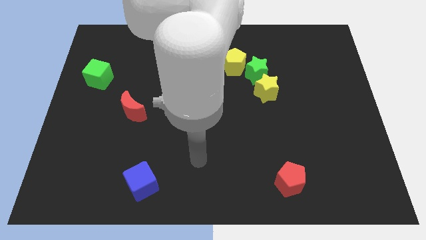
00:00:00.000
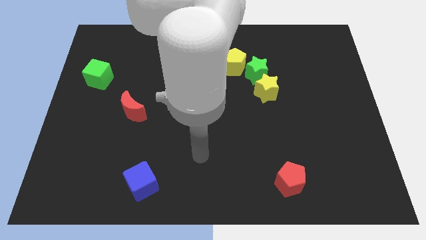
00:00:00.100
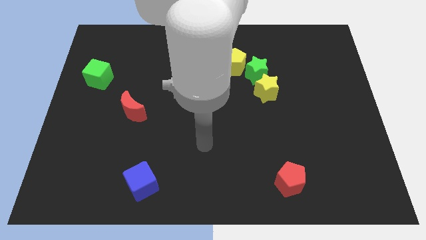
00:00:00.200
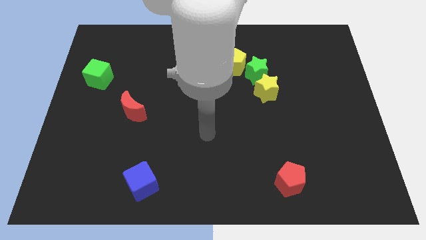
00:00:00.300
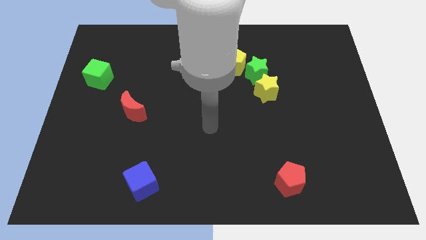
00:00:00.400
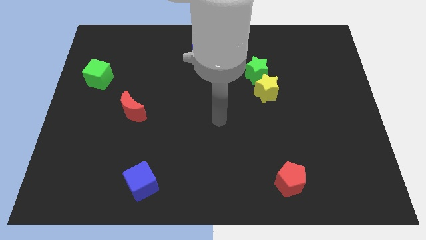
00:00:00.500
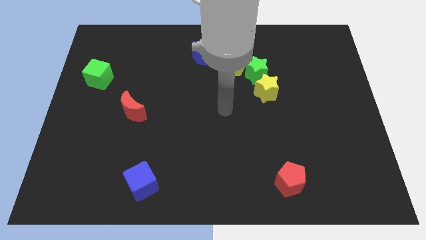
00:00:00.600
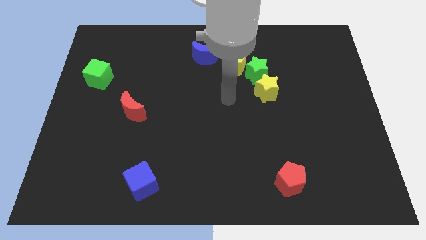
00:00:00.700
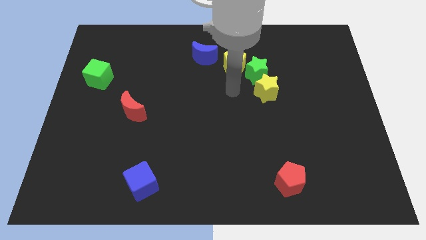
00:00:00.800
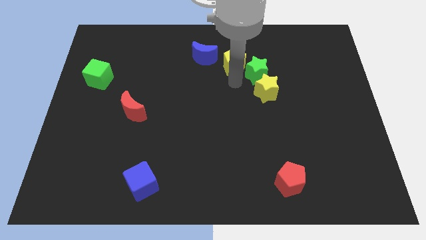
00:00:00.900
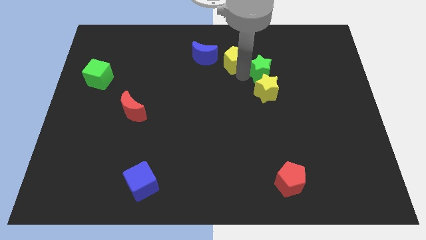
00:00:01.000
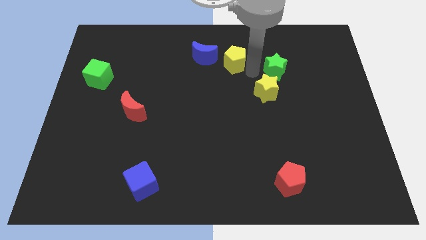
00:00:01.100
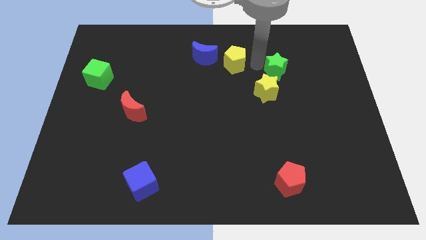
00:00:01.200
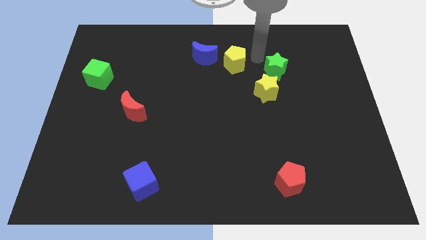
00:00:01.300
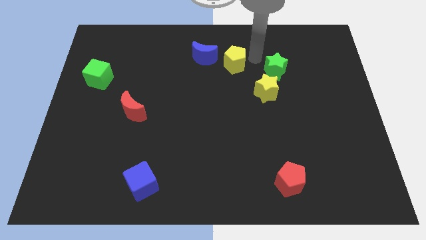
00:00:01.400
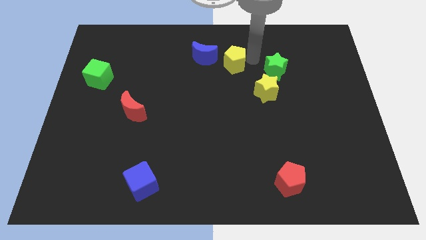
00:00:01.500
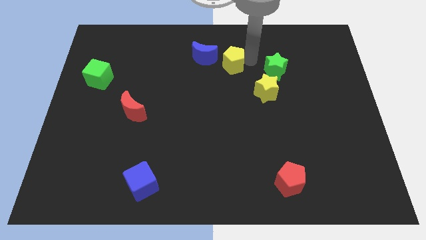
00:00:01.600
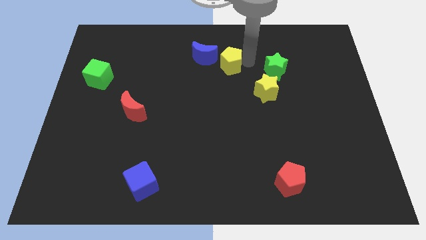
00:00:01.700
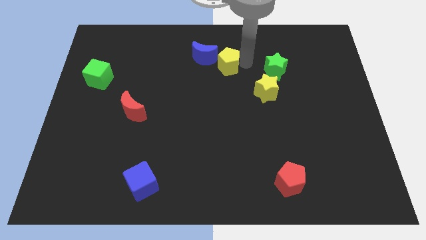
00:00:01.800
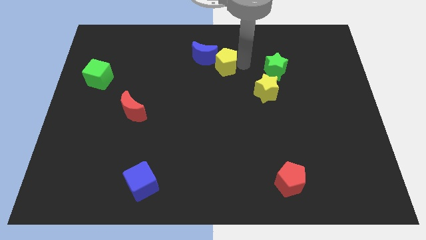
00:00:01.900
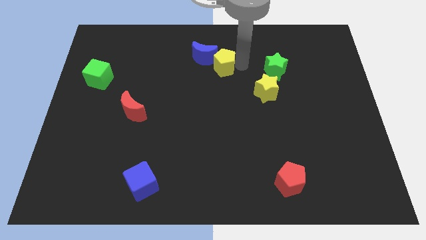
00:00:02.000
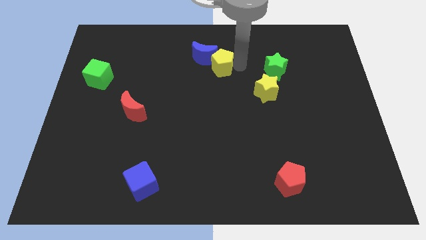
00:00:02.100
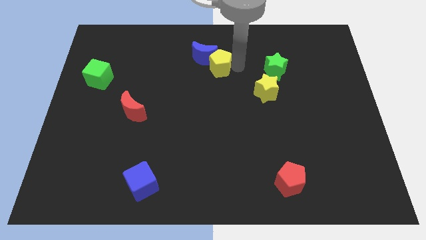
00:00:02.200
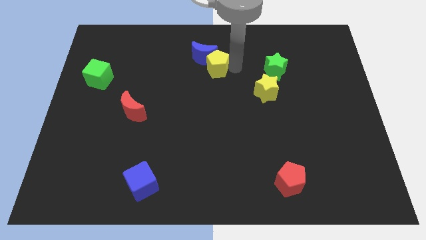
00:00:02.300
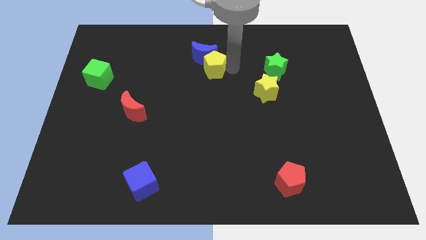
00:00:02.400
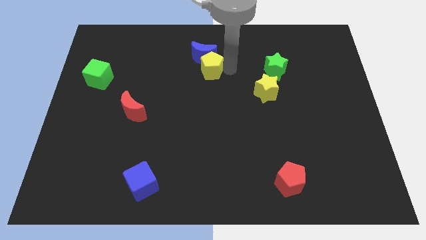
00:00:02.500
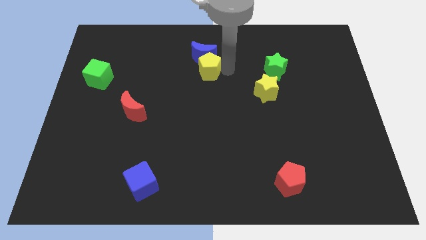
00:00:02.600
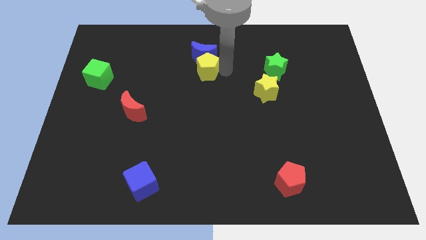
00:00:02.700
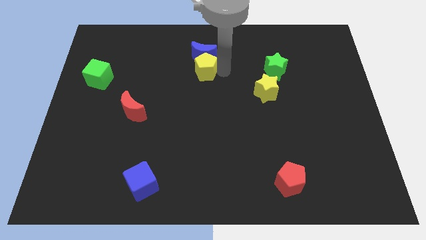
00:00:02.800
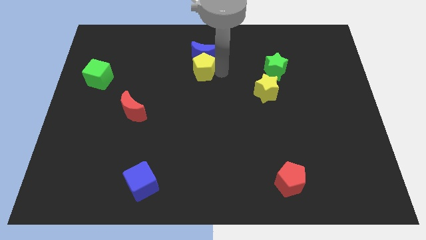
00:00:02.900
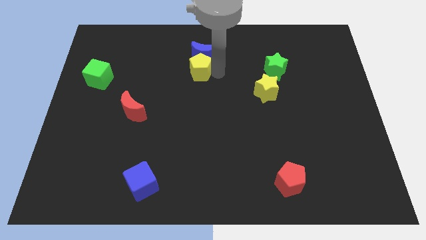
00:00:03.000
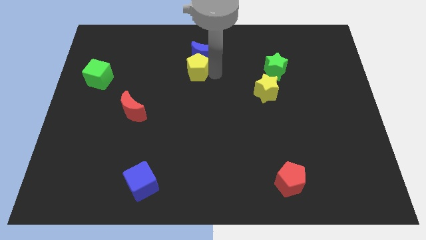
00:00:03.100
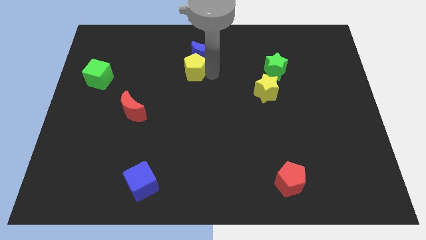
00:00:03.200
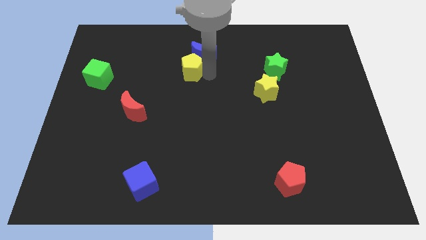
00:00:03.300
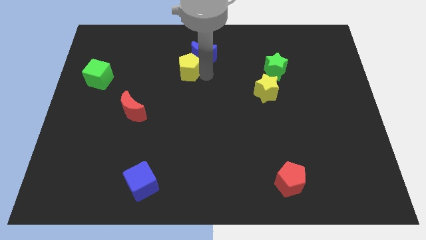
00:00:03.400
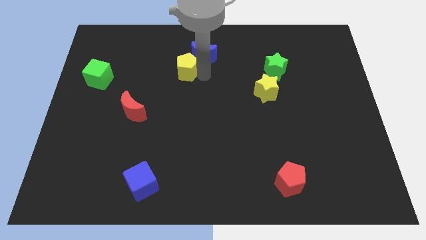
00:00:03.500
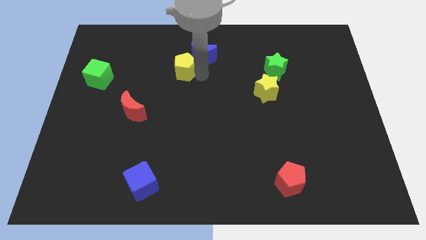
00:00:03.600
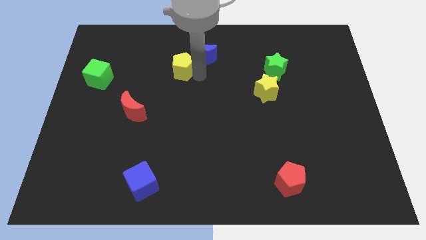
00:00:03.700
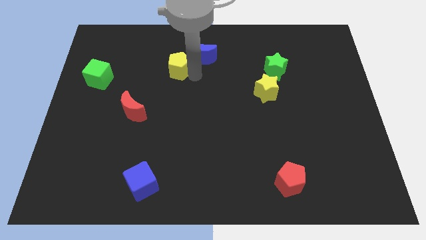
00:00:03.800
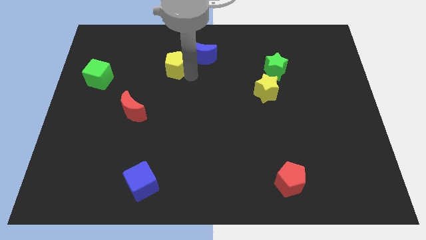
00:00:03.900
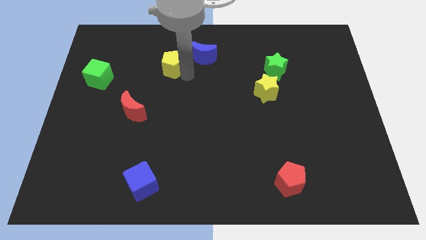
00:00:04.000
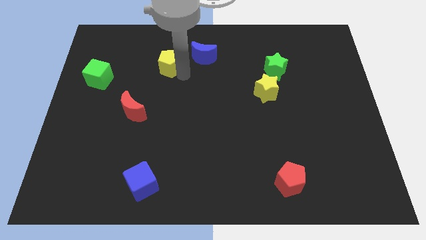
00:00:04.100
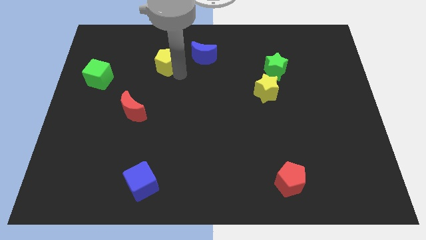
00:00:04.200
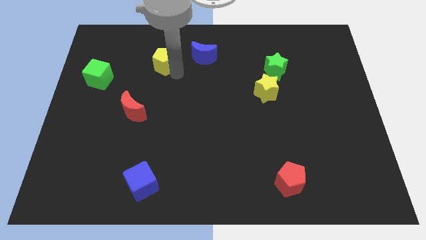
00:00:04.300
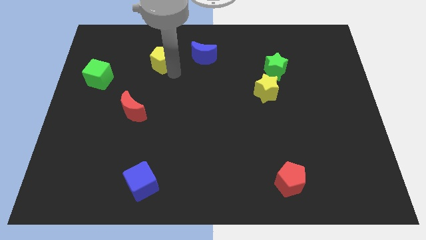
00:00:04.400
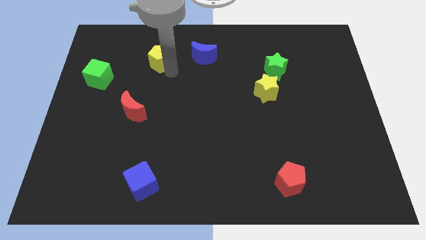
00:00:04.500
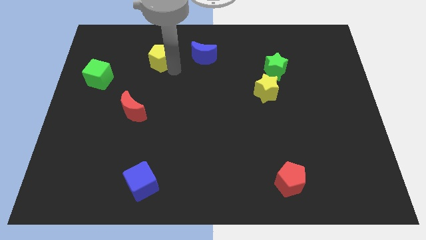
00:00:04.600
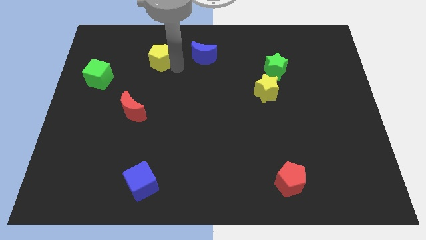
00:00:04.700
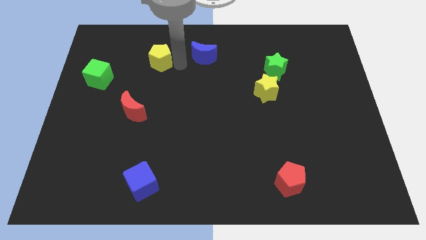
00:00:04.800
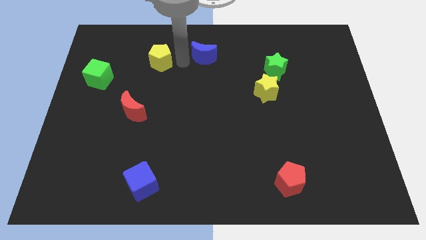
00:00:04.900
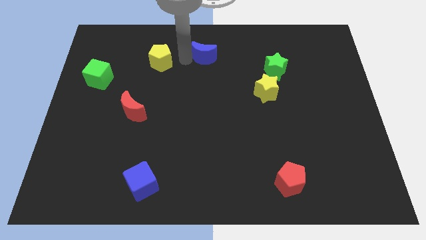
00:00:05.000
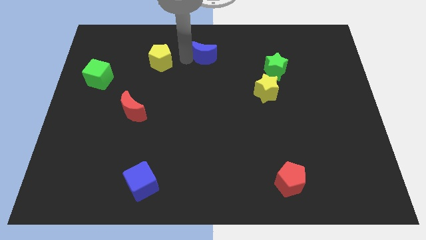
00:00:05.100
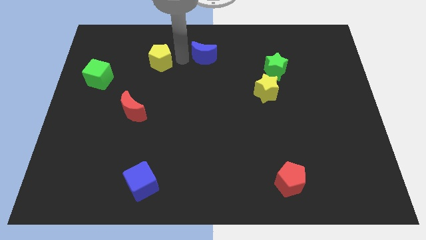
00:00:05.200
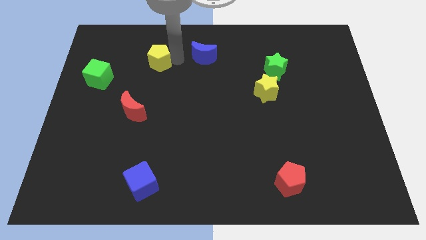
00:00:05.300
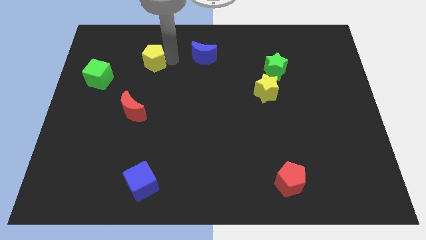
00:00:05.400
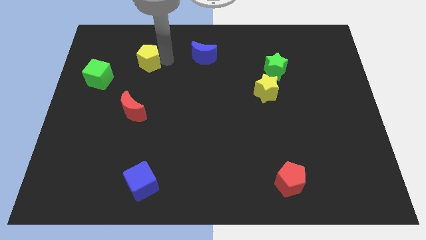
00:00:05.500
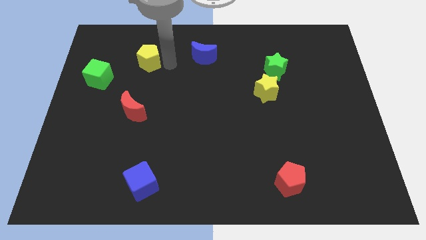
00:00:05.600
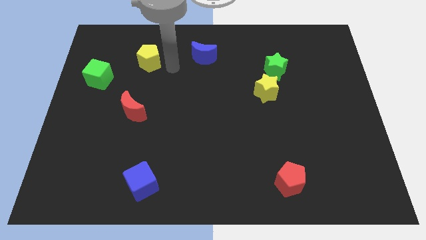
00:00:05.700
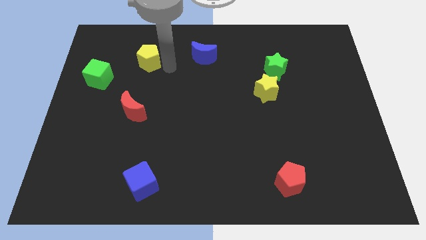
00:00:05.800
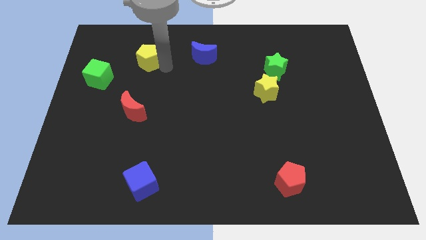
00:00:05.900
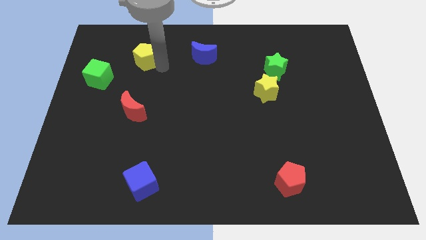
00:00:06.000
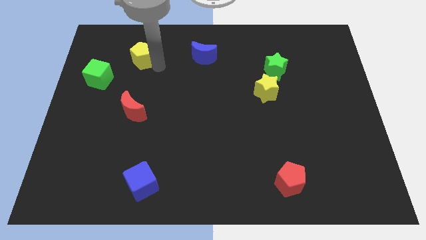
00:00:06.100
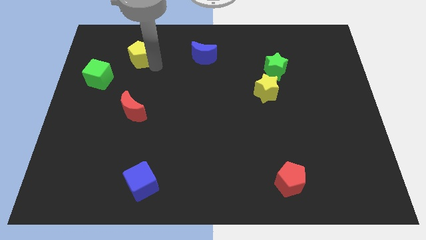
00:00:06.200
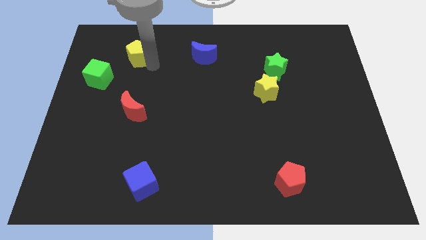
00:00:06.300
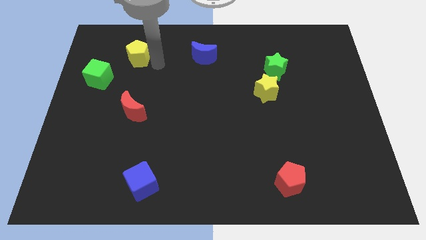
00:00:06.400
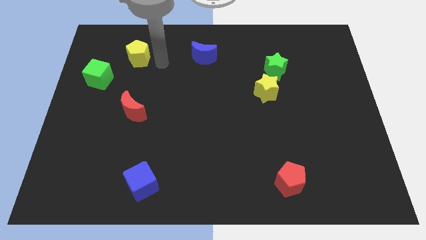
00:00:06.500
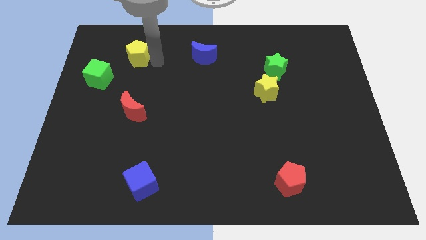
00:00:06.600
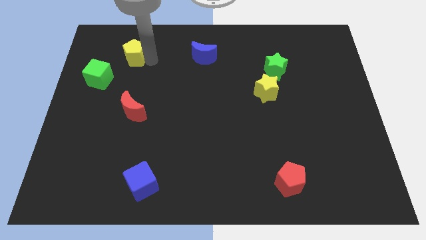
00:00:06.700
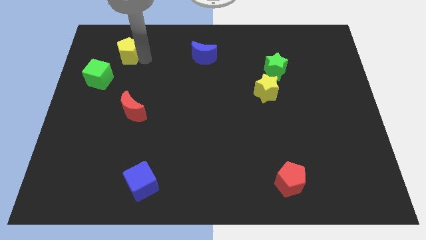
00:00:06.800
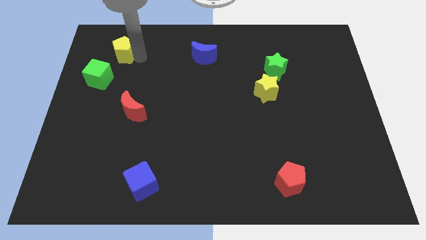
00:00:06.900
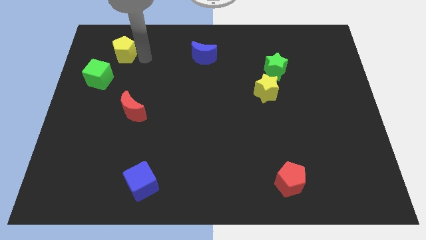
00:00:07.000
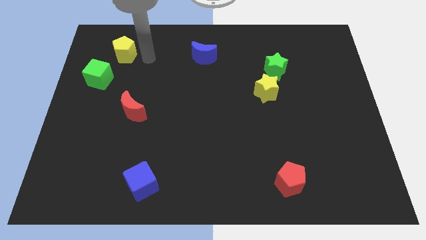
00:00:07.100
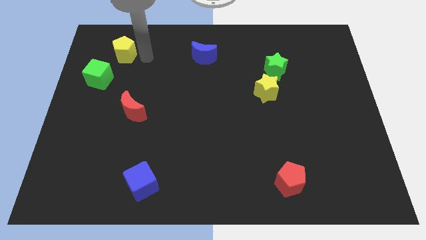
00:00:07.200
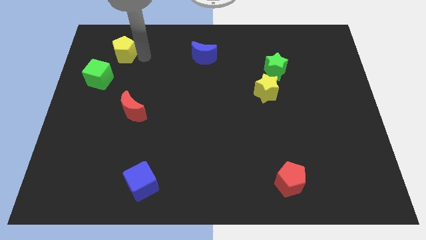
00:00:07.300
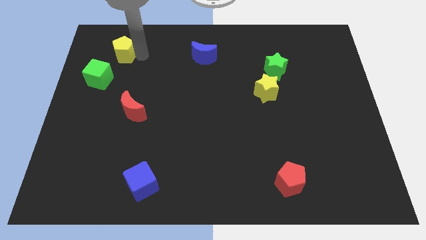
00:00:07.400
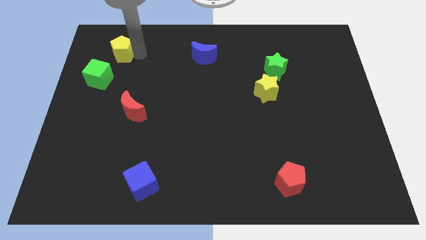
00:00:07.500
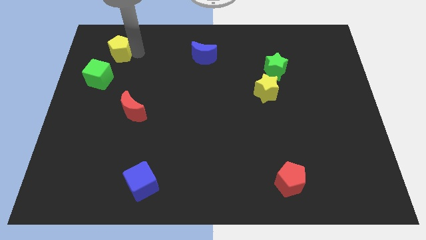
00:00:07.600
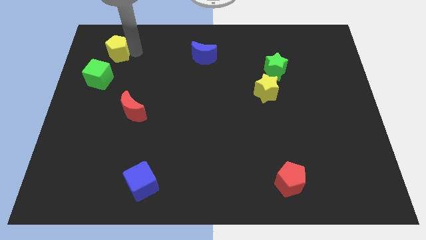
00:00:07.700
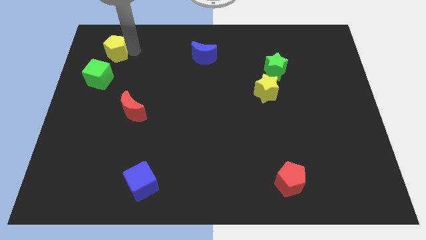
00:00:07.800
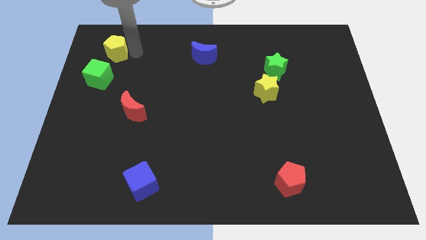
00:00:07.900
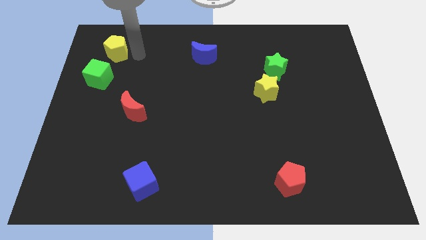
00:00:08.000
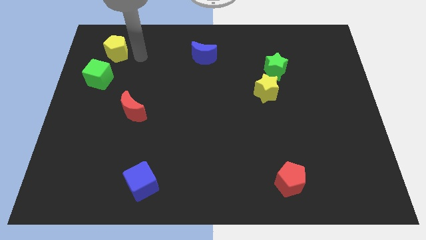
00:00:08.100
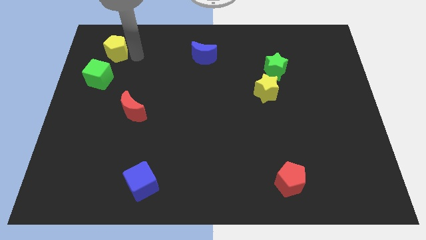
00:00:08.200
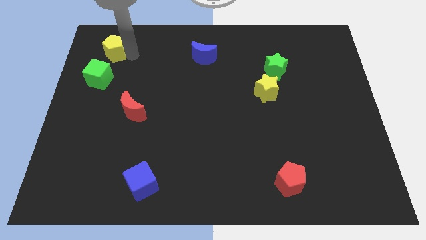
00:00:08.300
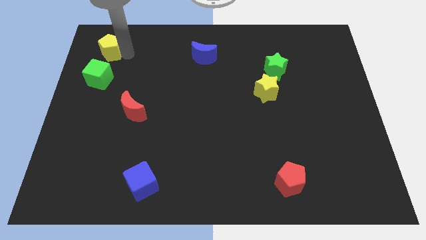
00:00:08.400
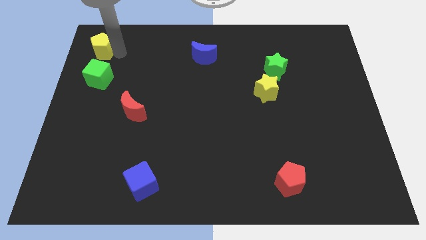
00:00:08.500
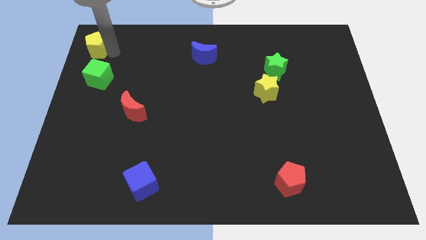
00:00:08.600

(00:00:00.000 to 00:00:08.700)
slide the yellow pentagon to the top left of the board
